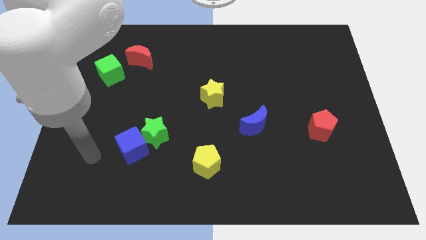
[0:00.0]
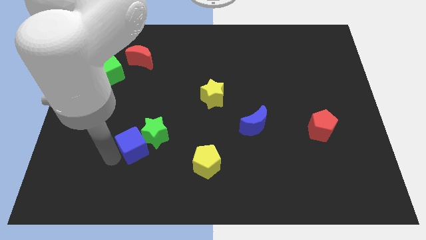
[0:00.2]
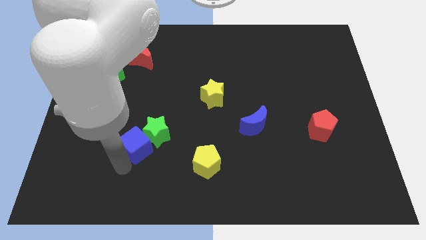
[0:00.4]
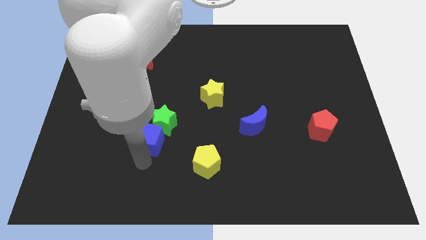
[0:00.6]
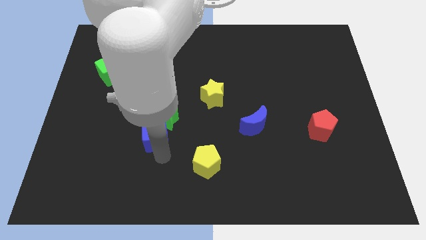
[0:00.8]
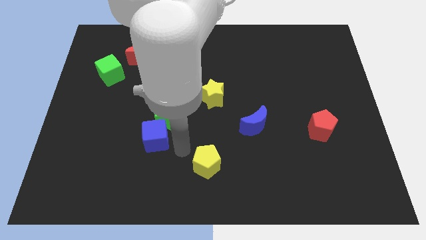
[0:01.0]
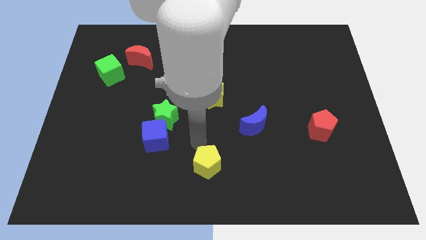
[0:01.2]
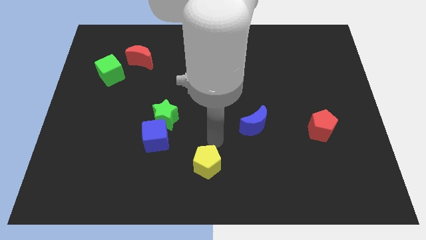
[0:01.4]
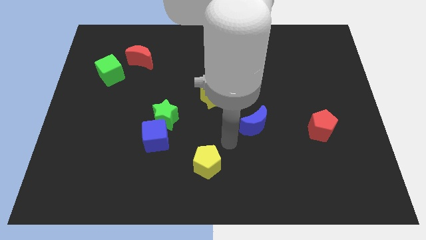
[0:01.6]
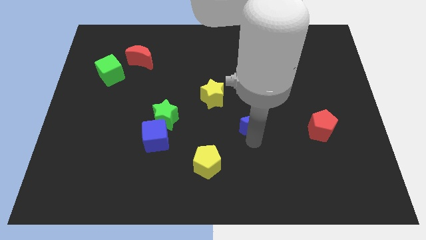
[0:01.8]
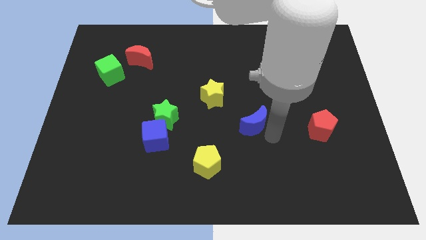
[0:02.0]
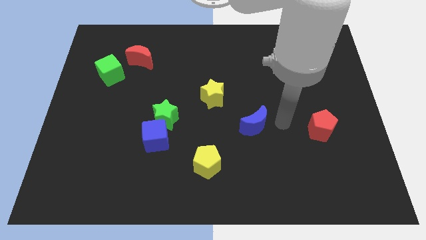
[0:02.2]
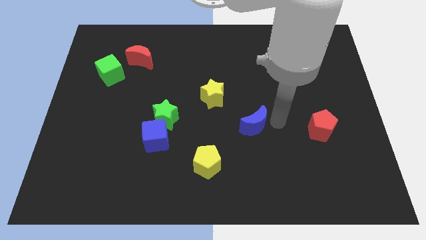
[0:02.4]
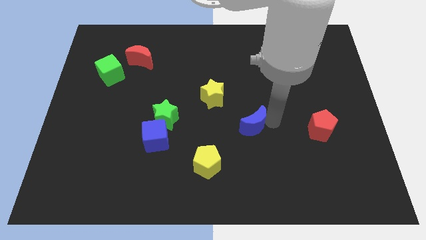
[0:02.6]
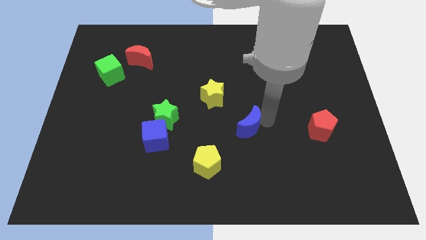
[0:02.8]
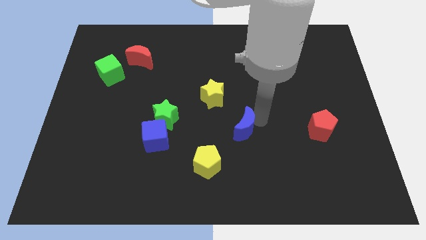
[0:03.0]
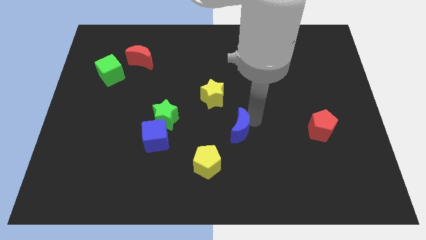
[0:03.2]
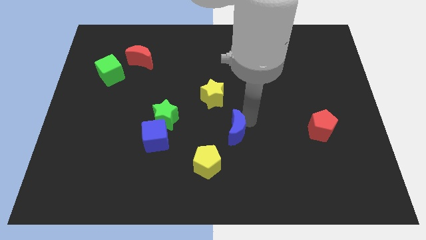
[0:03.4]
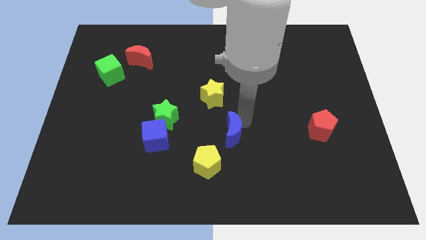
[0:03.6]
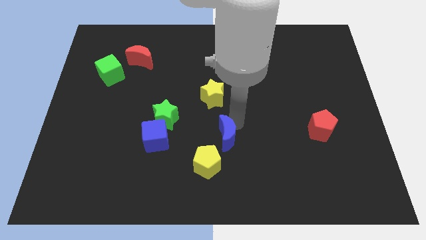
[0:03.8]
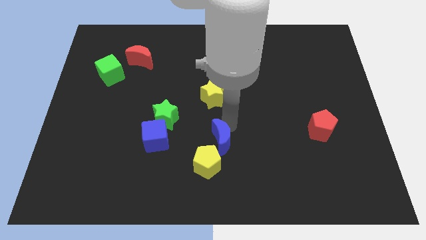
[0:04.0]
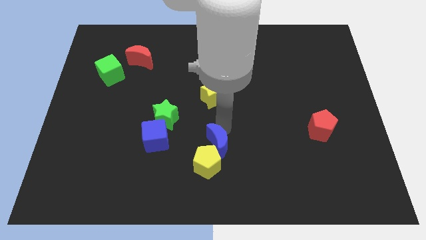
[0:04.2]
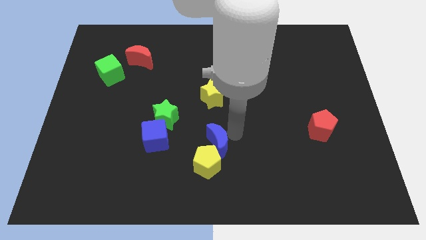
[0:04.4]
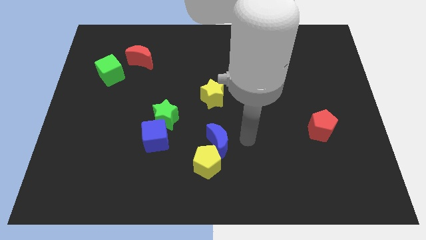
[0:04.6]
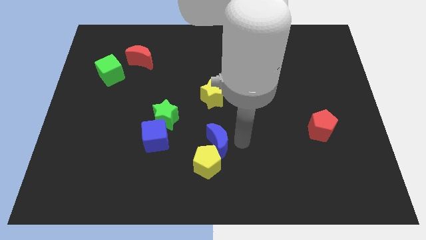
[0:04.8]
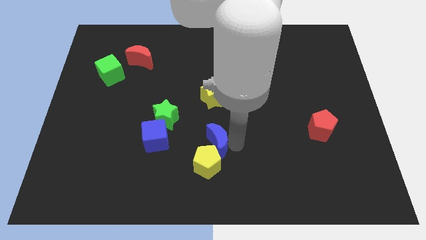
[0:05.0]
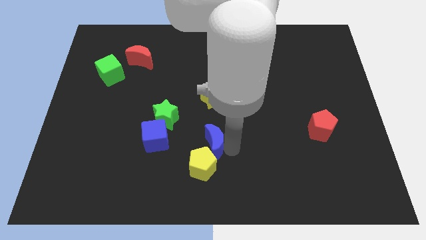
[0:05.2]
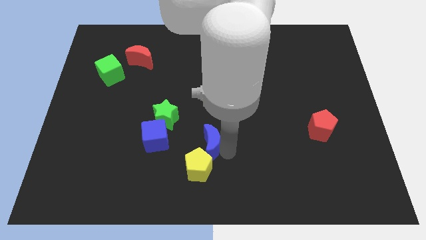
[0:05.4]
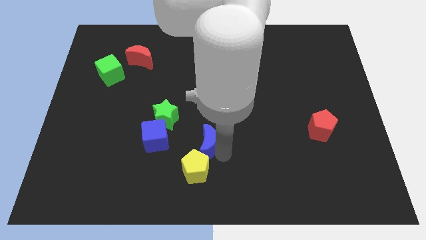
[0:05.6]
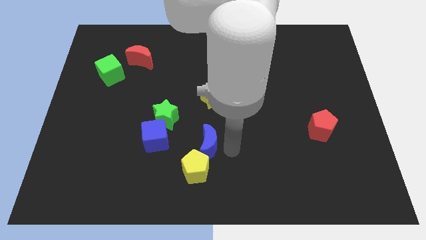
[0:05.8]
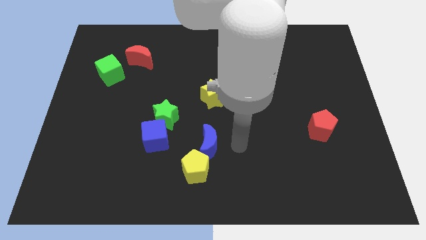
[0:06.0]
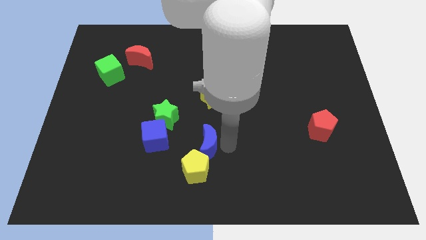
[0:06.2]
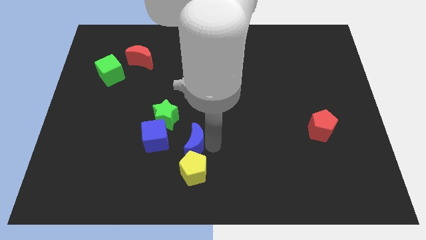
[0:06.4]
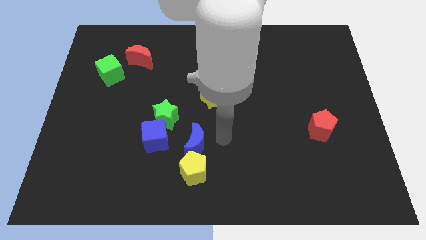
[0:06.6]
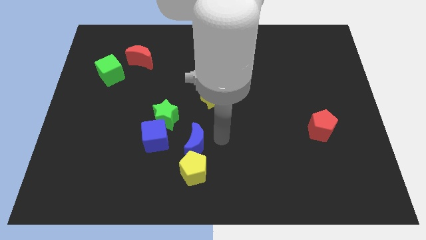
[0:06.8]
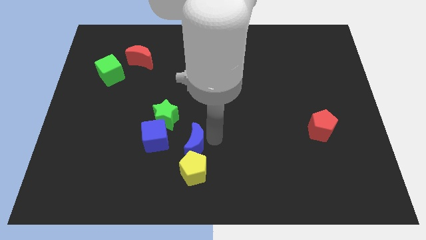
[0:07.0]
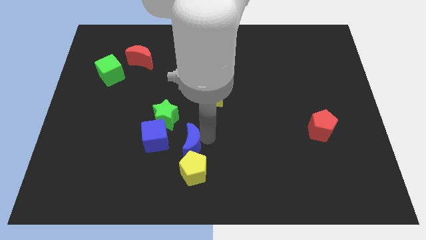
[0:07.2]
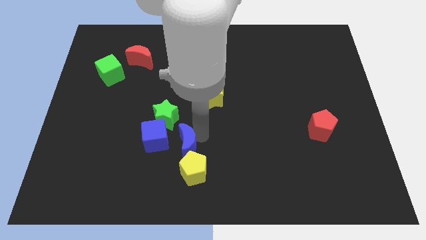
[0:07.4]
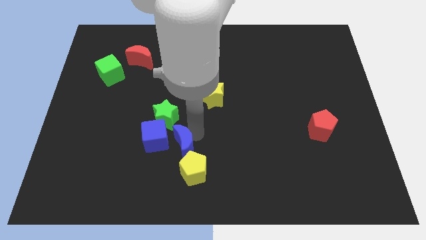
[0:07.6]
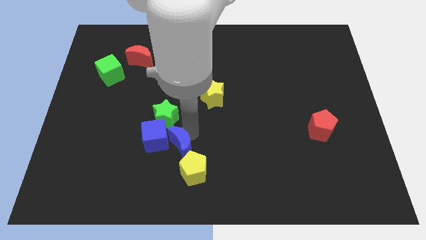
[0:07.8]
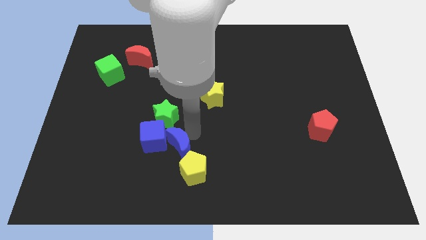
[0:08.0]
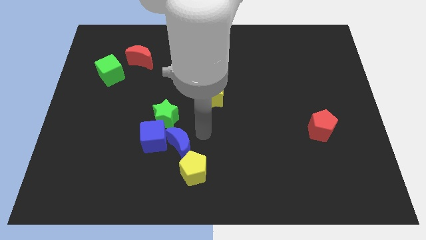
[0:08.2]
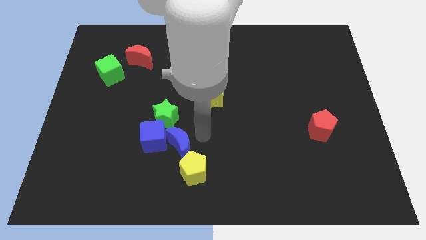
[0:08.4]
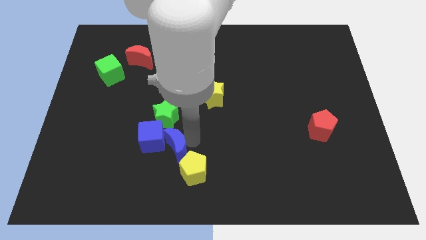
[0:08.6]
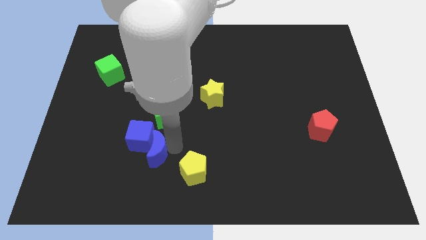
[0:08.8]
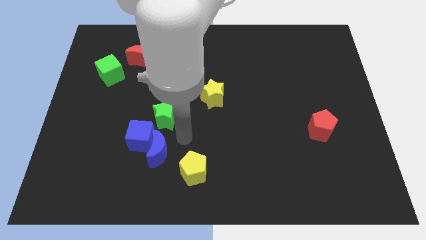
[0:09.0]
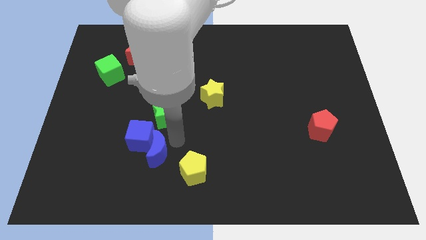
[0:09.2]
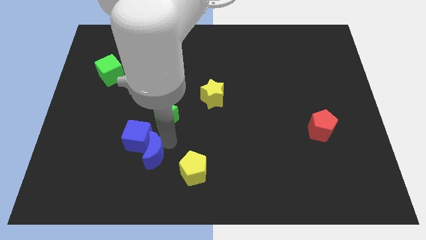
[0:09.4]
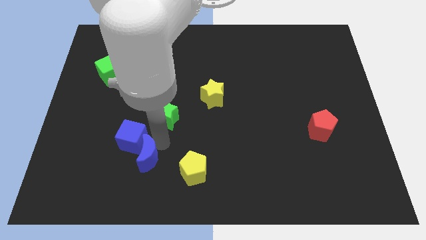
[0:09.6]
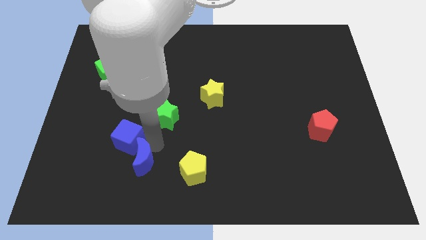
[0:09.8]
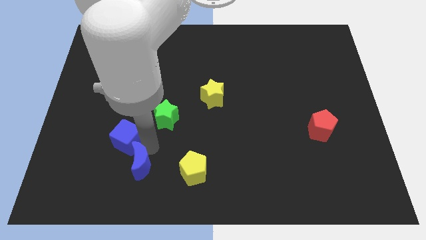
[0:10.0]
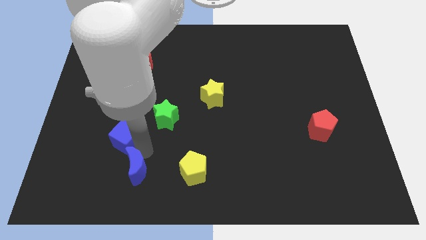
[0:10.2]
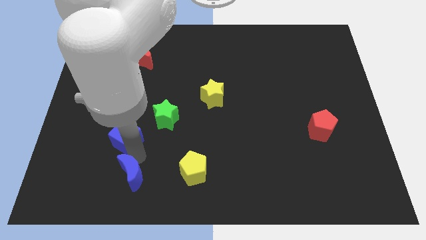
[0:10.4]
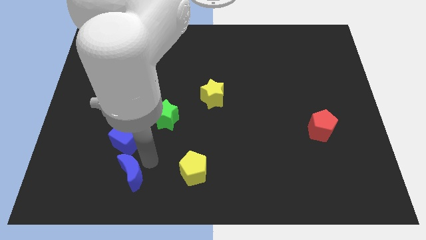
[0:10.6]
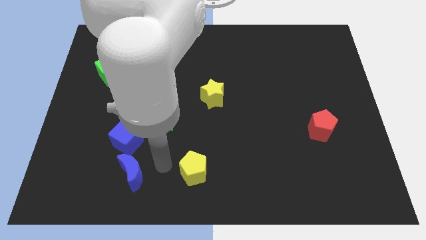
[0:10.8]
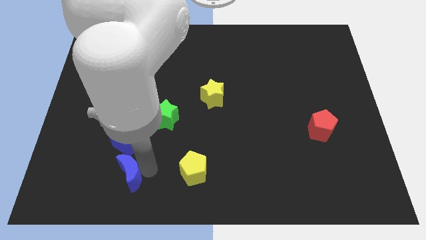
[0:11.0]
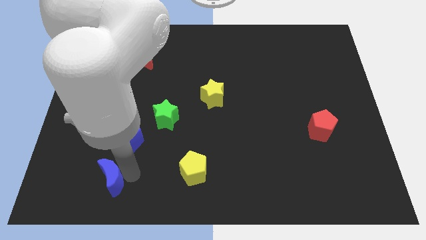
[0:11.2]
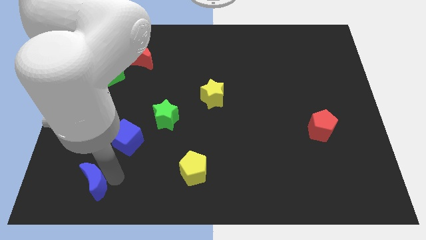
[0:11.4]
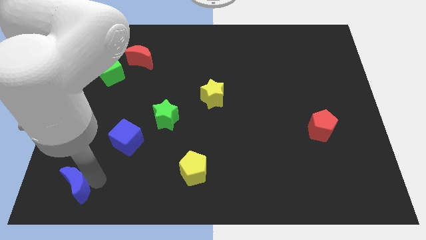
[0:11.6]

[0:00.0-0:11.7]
push the blue moon to the lower left corner
